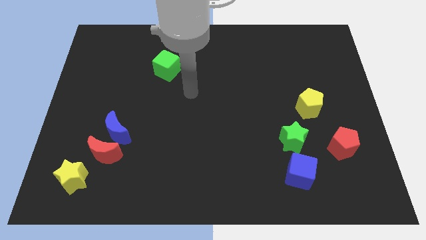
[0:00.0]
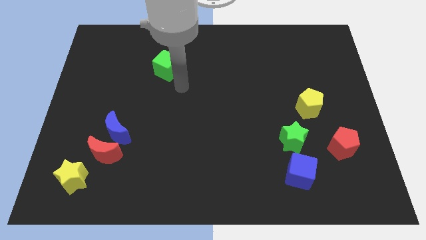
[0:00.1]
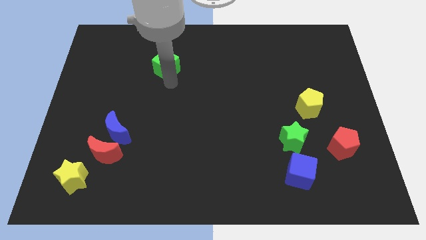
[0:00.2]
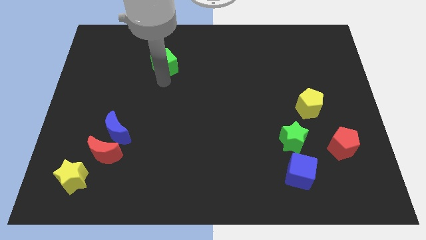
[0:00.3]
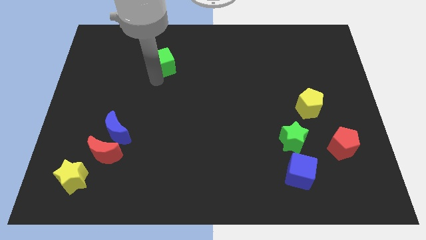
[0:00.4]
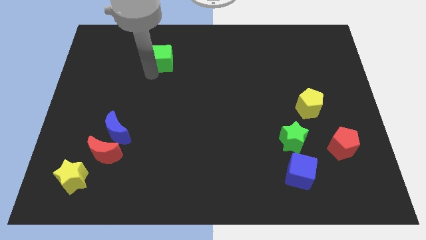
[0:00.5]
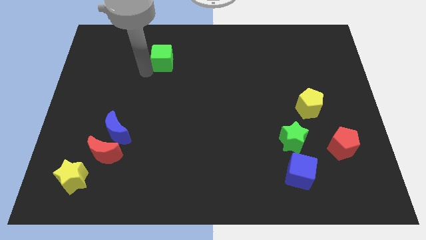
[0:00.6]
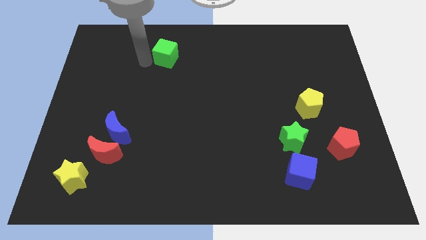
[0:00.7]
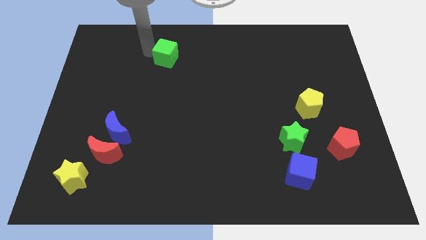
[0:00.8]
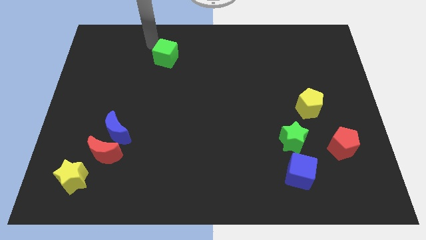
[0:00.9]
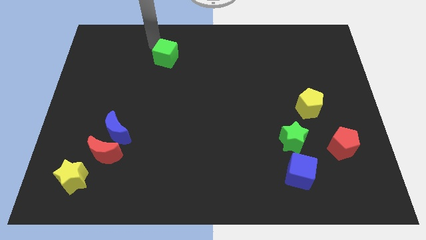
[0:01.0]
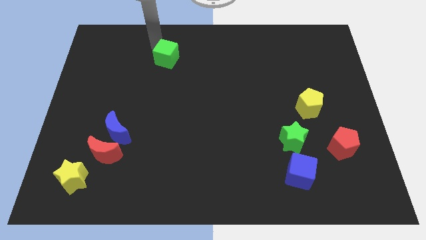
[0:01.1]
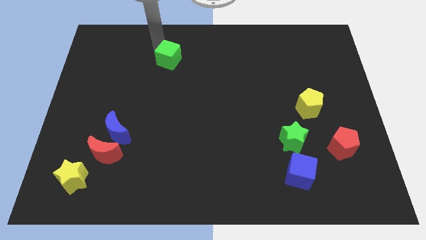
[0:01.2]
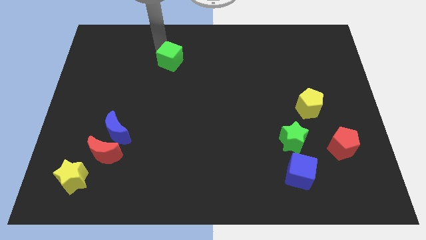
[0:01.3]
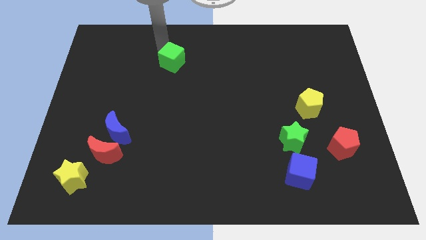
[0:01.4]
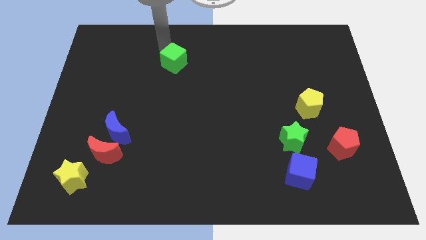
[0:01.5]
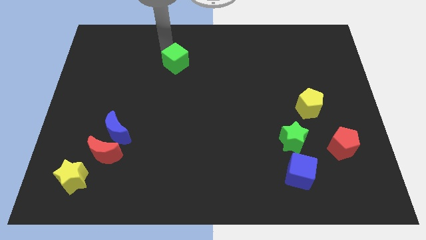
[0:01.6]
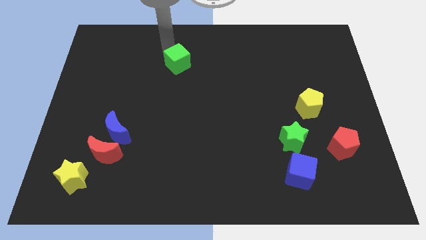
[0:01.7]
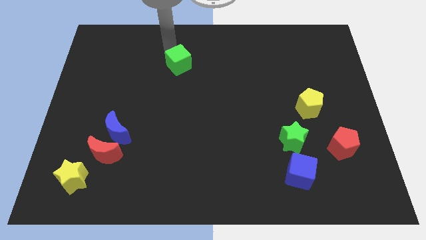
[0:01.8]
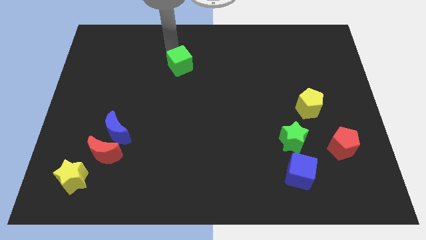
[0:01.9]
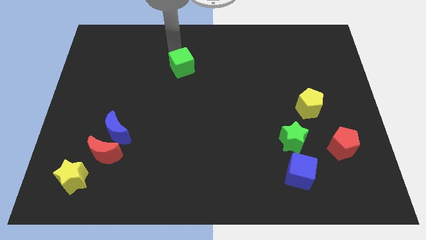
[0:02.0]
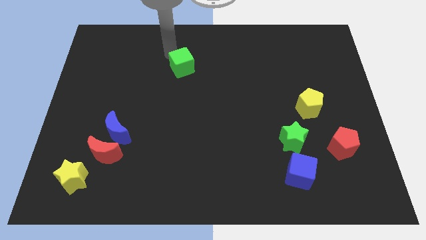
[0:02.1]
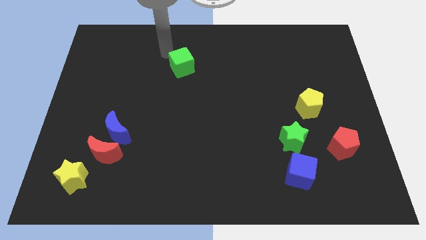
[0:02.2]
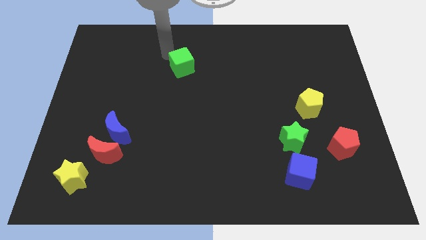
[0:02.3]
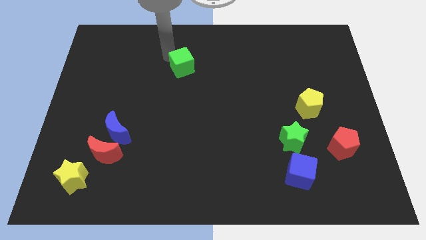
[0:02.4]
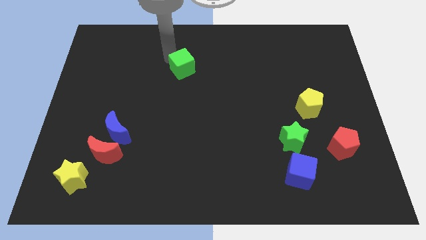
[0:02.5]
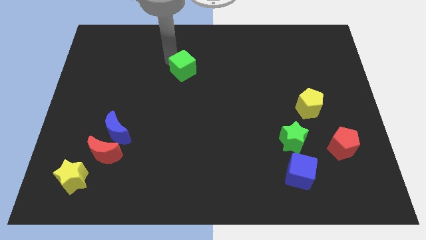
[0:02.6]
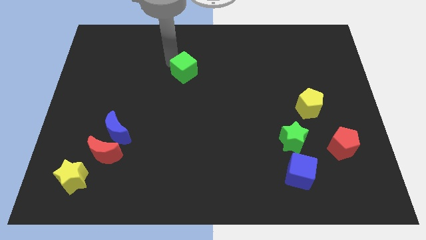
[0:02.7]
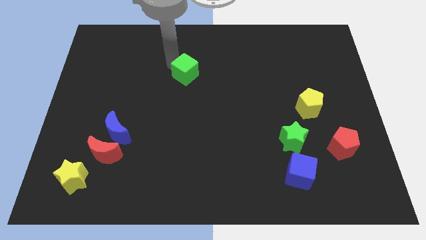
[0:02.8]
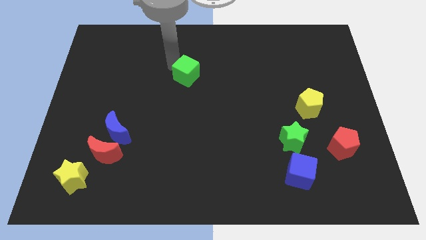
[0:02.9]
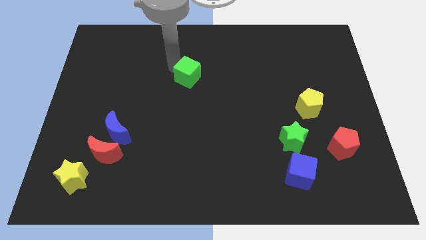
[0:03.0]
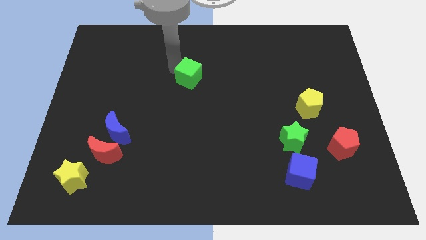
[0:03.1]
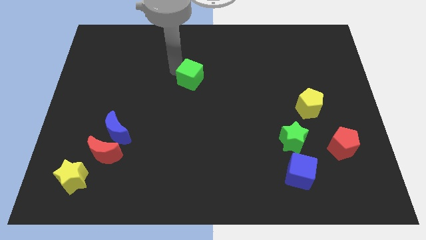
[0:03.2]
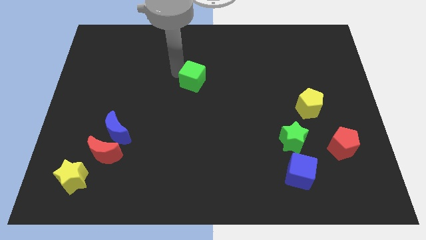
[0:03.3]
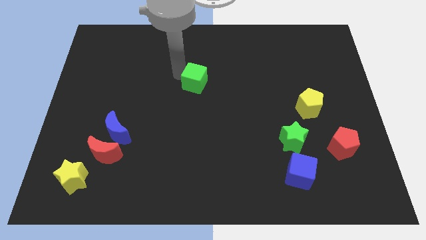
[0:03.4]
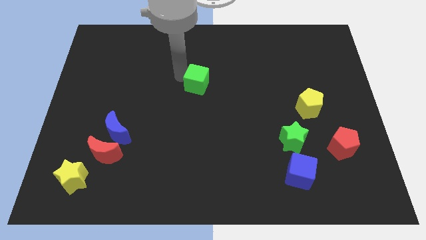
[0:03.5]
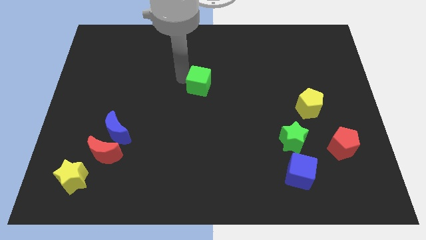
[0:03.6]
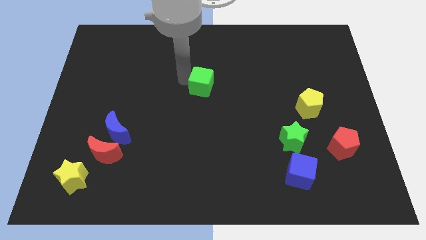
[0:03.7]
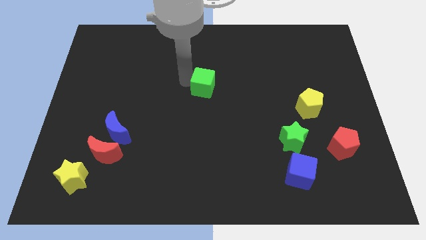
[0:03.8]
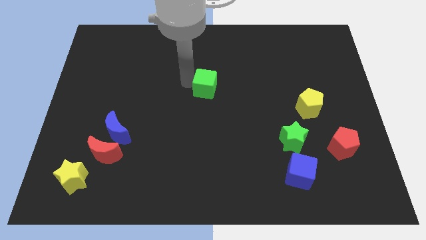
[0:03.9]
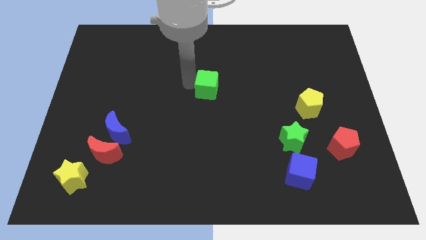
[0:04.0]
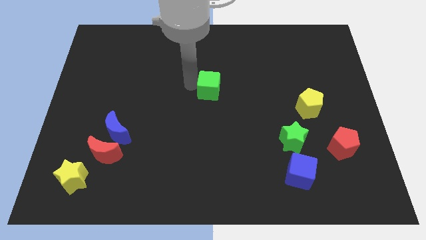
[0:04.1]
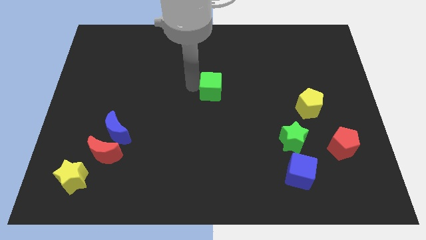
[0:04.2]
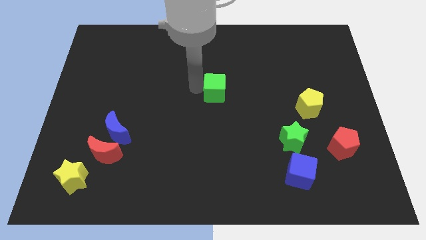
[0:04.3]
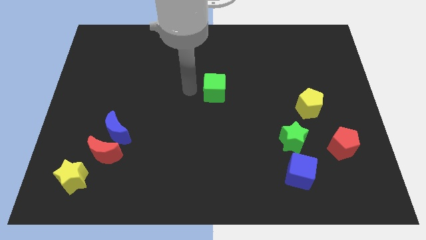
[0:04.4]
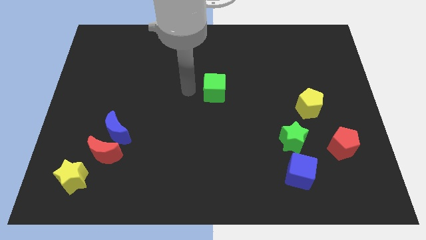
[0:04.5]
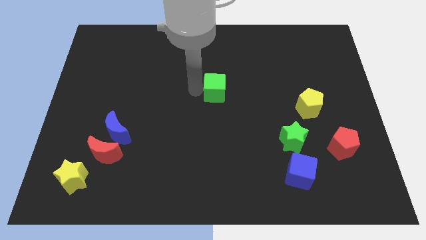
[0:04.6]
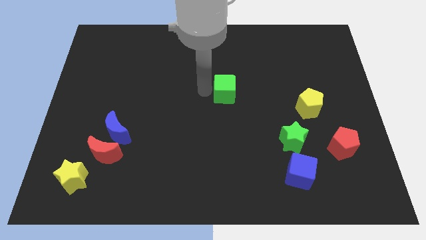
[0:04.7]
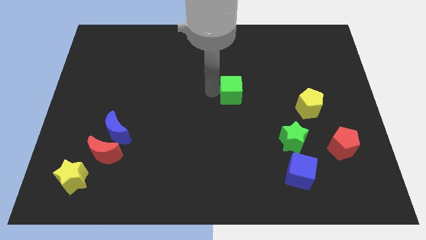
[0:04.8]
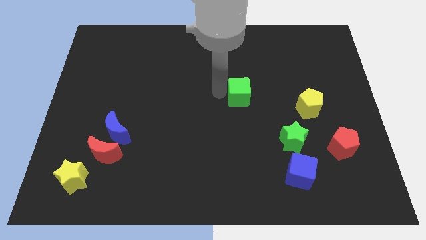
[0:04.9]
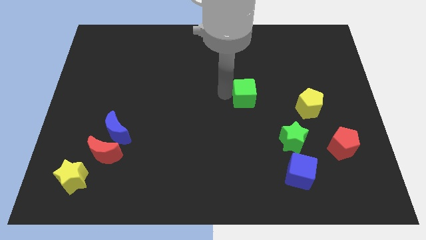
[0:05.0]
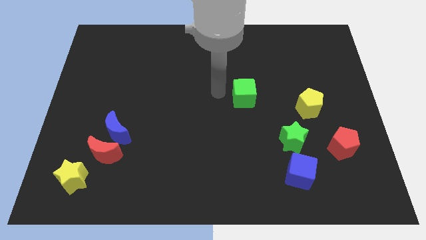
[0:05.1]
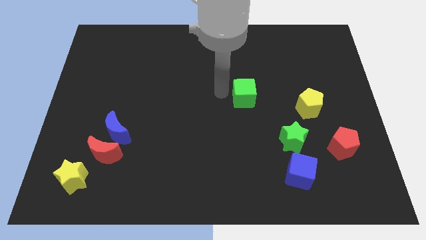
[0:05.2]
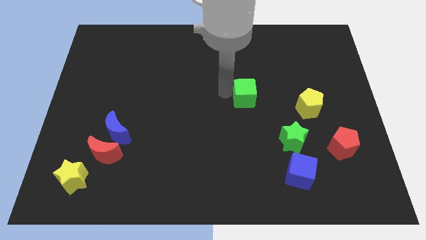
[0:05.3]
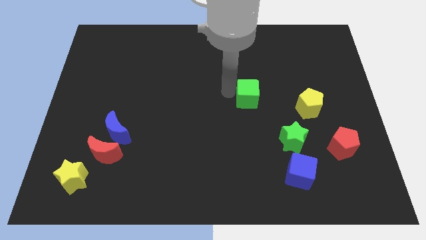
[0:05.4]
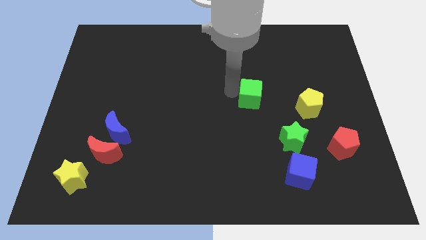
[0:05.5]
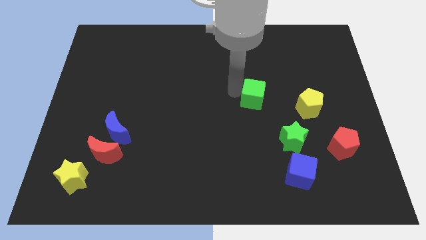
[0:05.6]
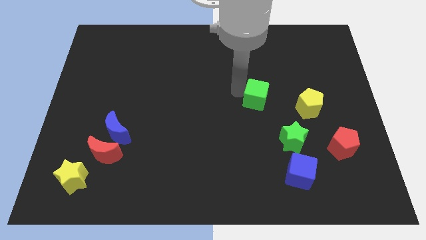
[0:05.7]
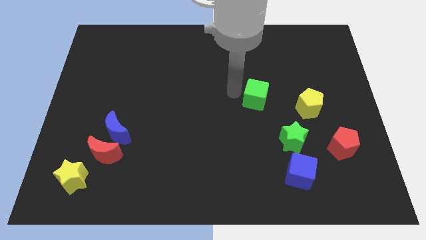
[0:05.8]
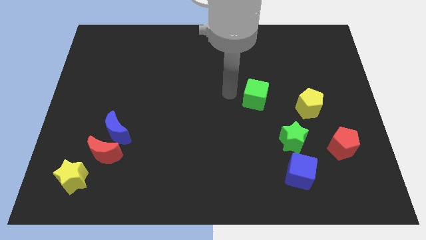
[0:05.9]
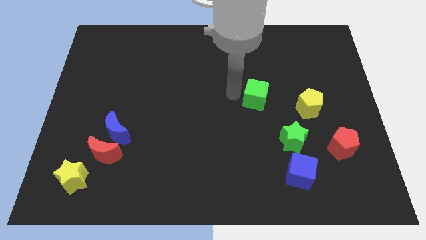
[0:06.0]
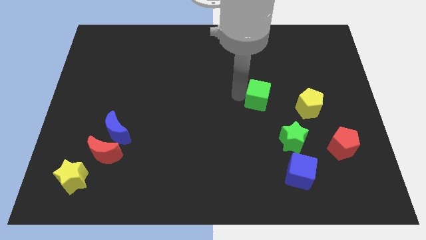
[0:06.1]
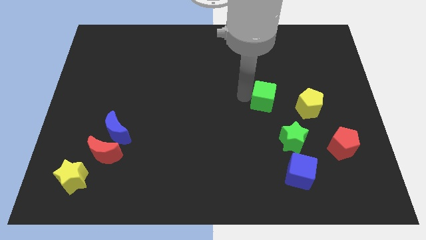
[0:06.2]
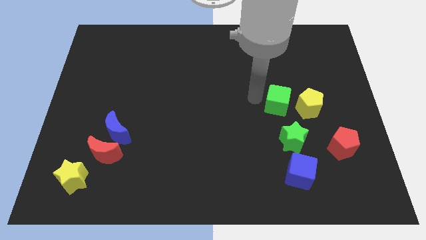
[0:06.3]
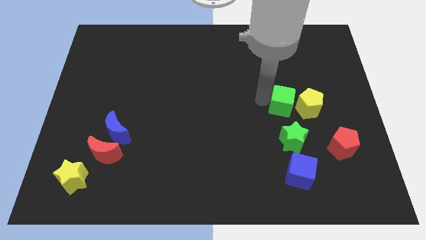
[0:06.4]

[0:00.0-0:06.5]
push the green cube next to the yellow pentagon
